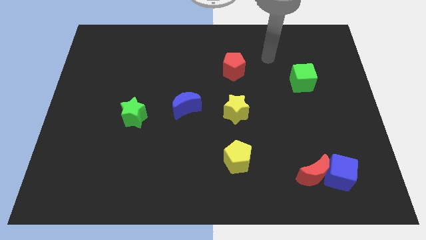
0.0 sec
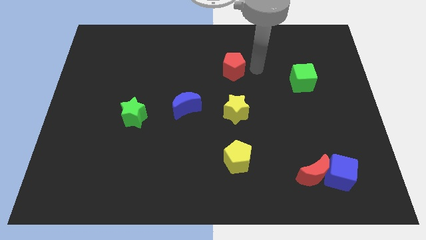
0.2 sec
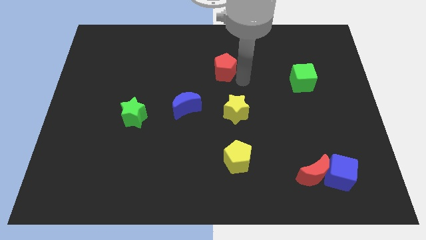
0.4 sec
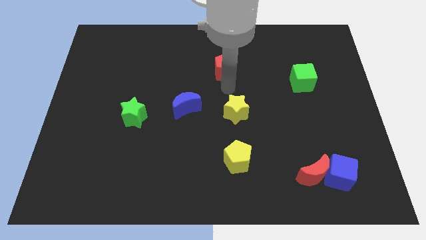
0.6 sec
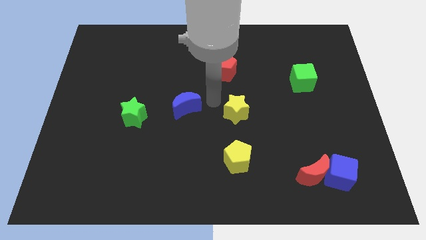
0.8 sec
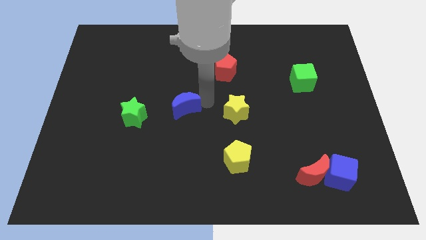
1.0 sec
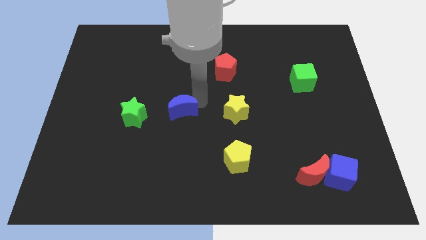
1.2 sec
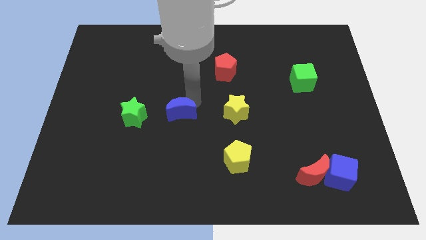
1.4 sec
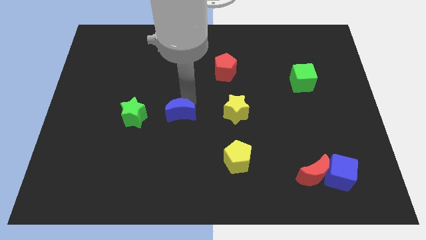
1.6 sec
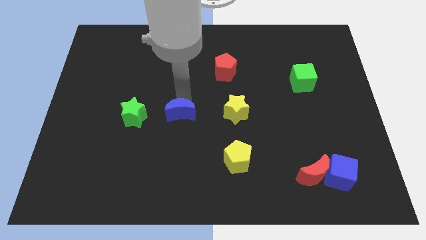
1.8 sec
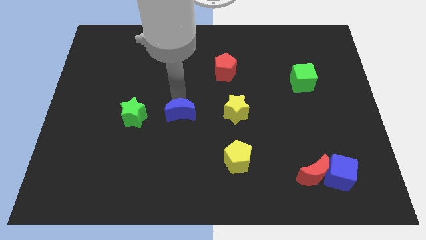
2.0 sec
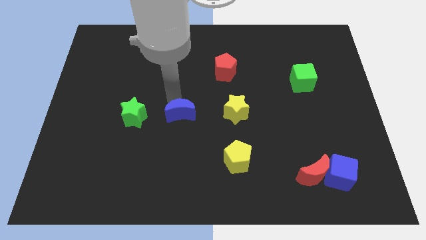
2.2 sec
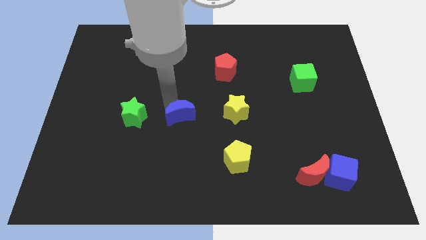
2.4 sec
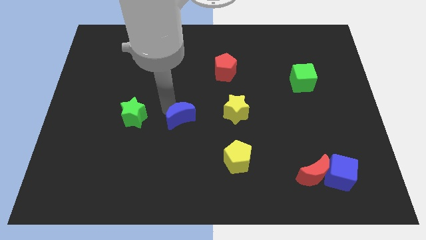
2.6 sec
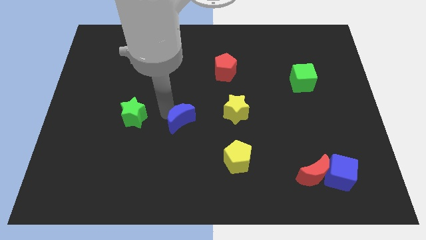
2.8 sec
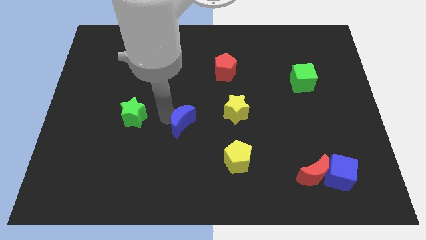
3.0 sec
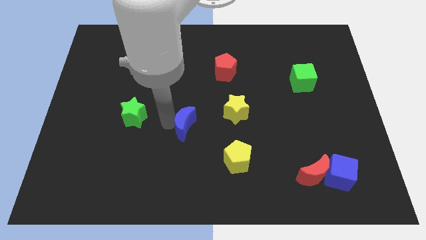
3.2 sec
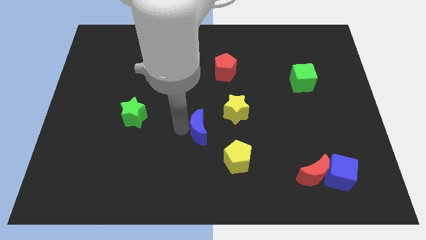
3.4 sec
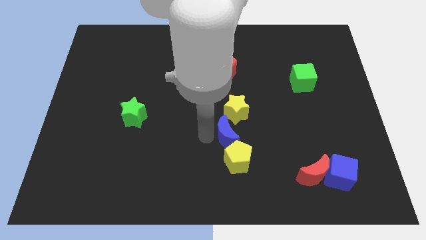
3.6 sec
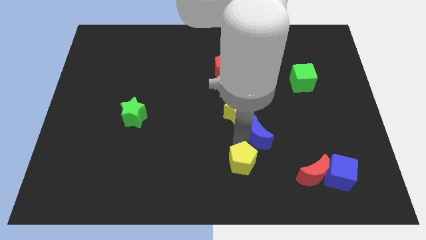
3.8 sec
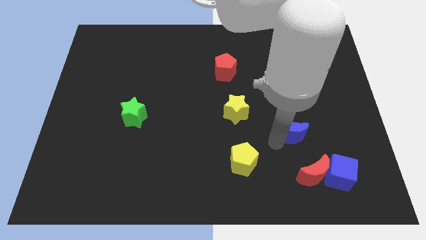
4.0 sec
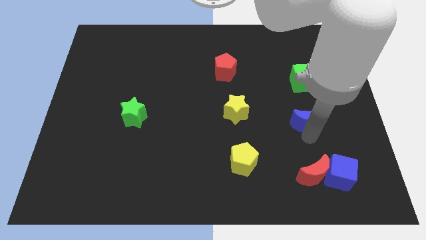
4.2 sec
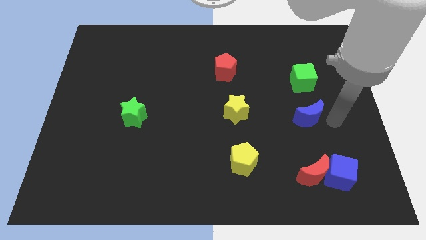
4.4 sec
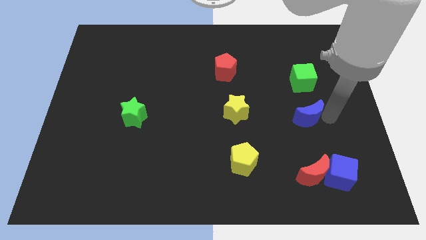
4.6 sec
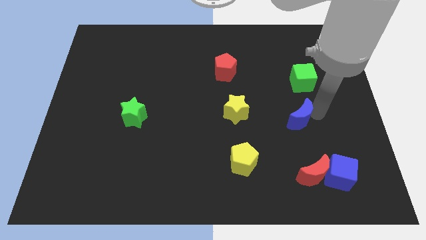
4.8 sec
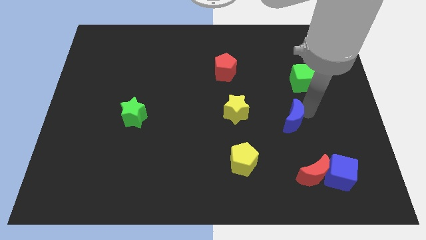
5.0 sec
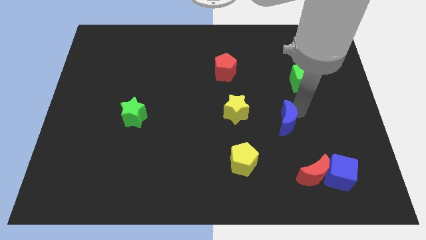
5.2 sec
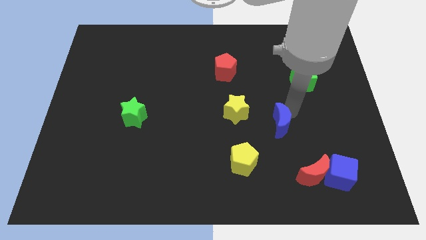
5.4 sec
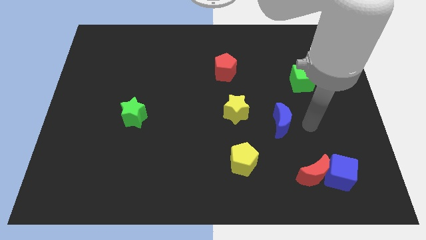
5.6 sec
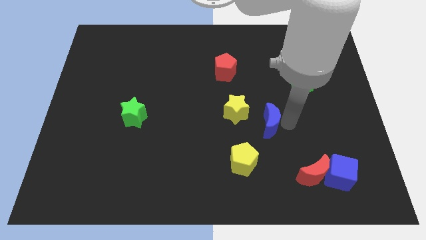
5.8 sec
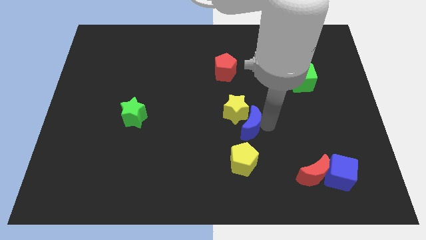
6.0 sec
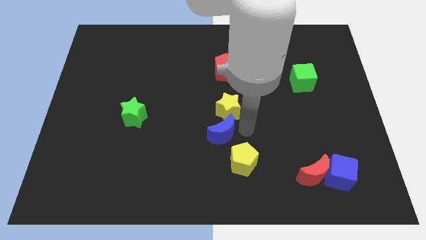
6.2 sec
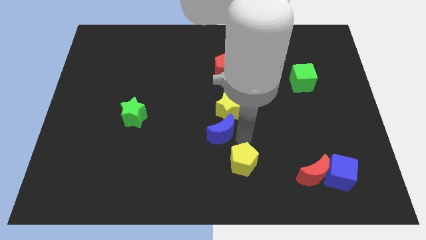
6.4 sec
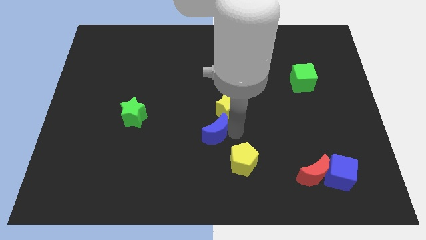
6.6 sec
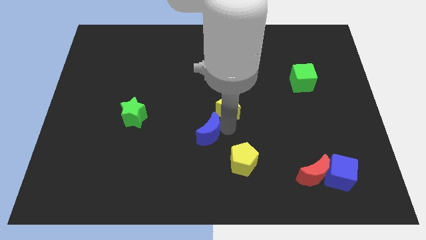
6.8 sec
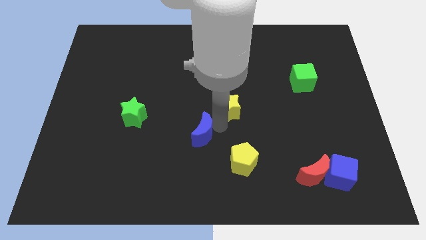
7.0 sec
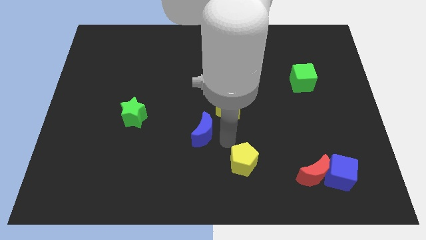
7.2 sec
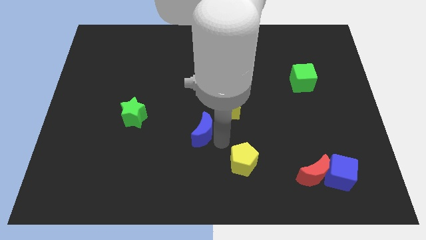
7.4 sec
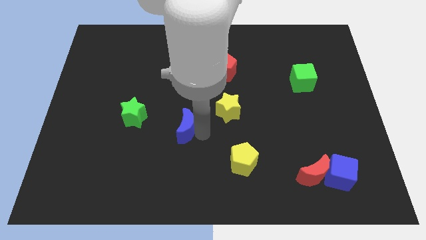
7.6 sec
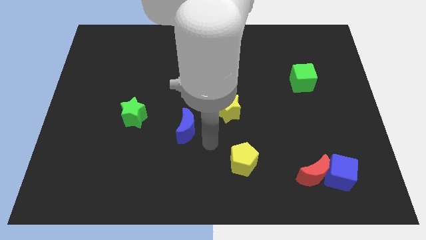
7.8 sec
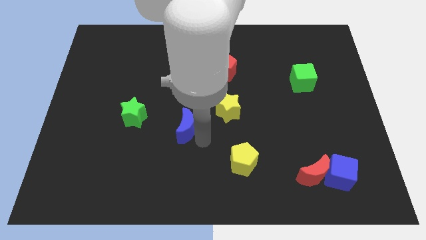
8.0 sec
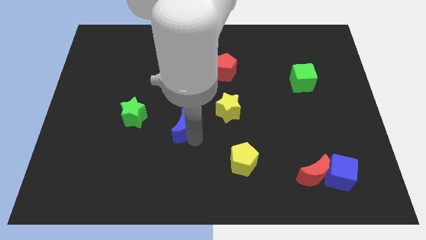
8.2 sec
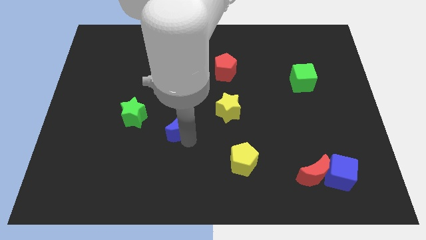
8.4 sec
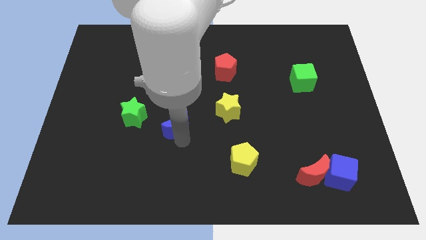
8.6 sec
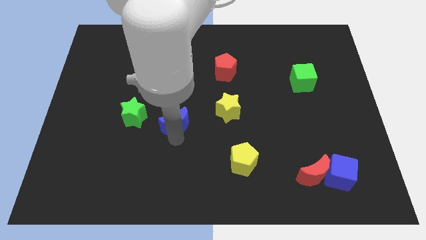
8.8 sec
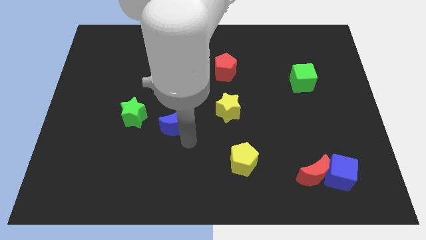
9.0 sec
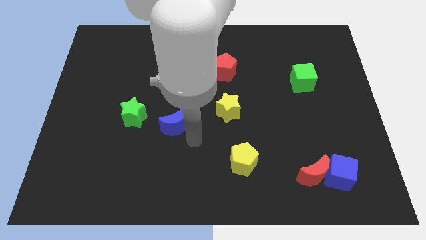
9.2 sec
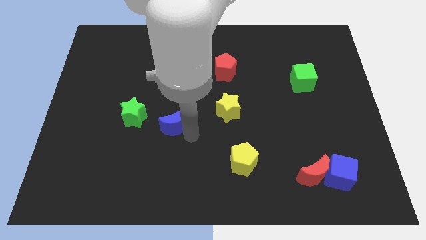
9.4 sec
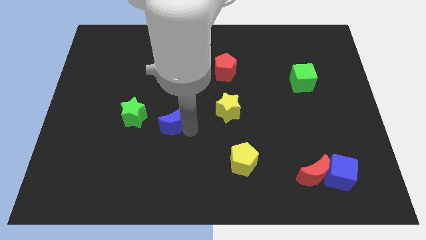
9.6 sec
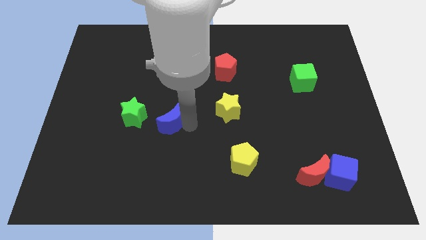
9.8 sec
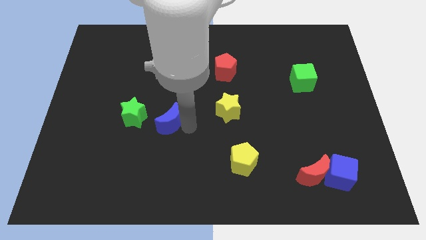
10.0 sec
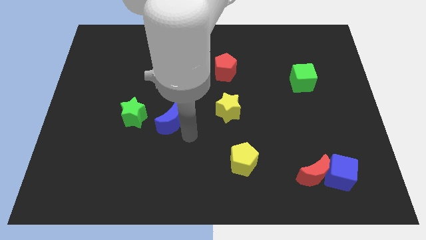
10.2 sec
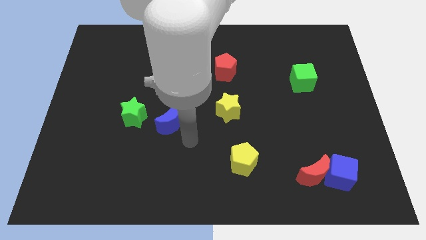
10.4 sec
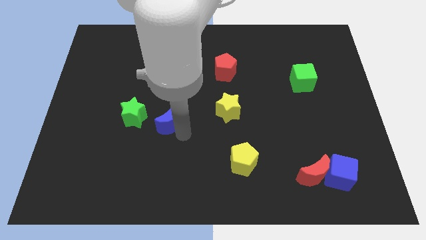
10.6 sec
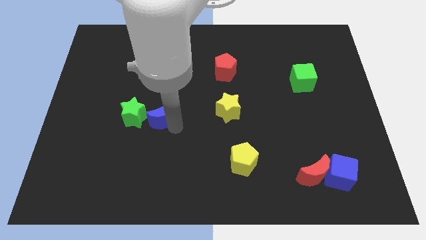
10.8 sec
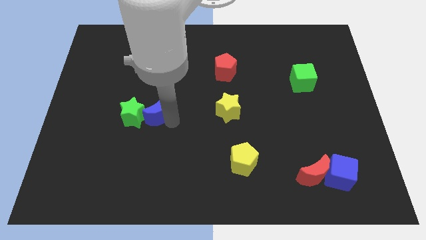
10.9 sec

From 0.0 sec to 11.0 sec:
slide the blue moon to the green star

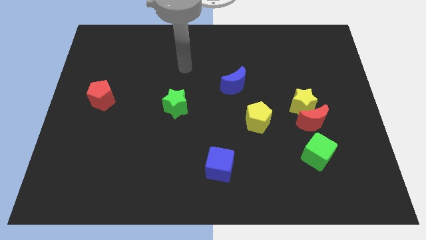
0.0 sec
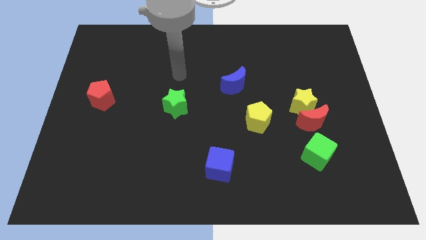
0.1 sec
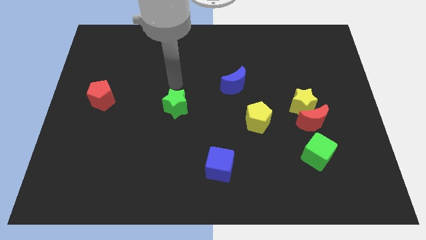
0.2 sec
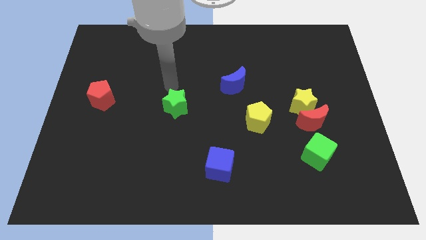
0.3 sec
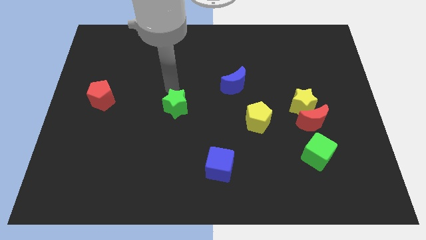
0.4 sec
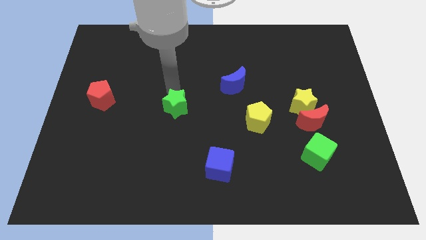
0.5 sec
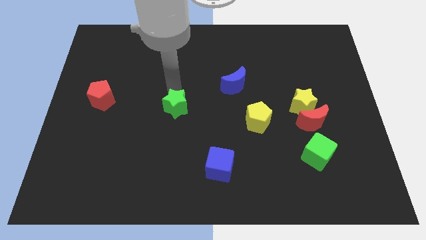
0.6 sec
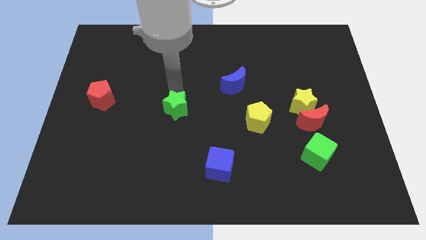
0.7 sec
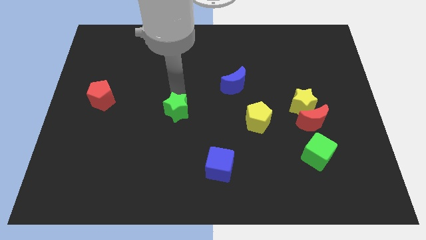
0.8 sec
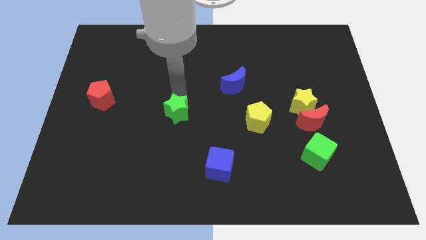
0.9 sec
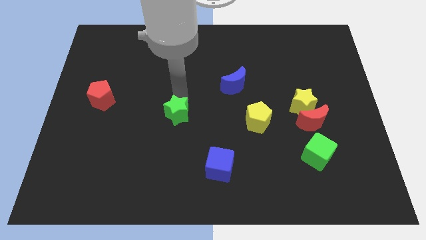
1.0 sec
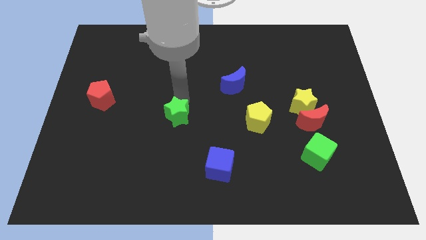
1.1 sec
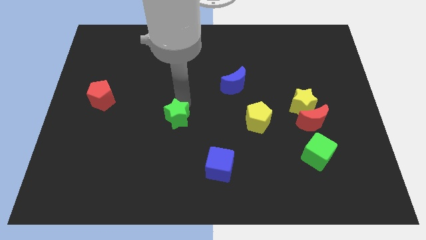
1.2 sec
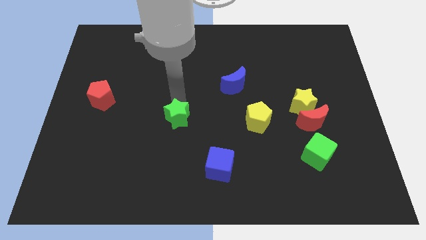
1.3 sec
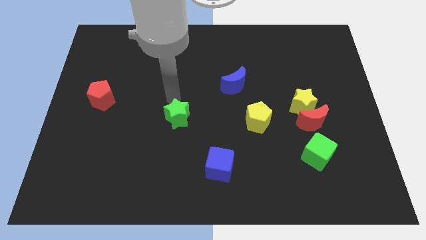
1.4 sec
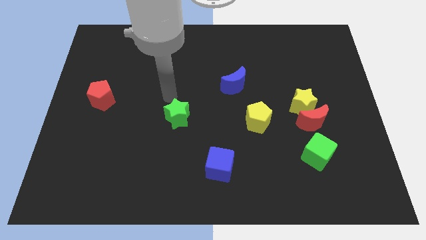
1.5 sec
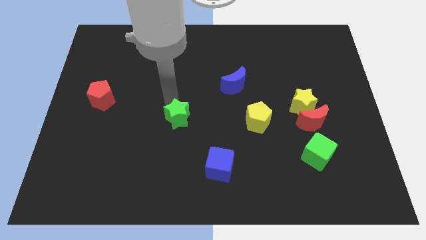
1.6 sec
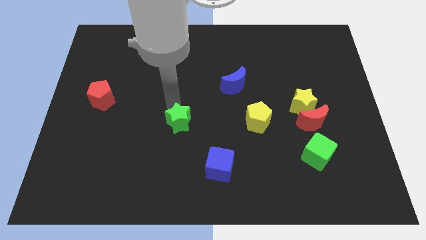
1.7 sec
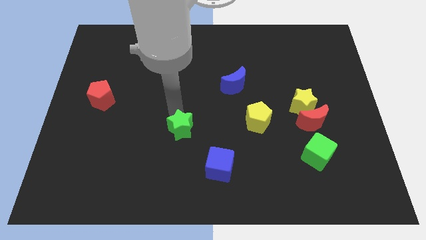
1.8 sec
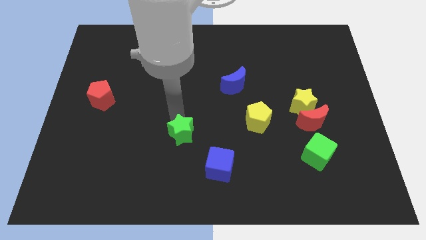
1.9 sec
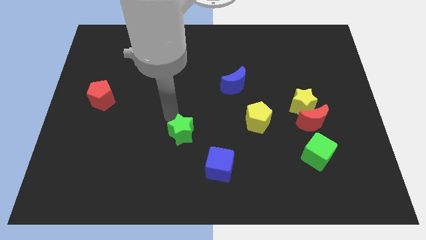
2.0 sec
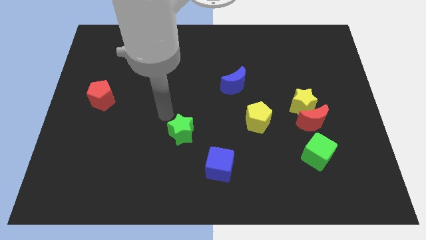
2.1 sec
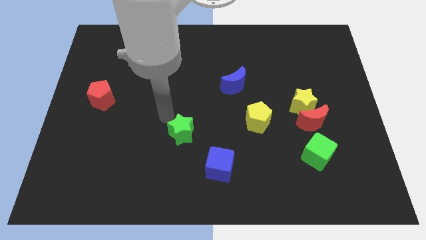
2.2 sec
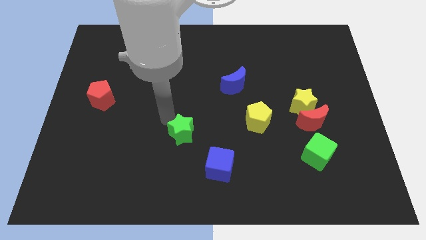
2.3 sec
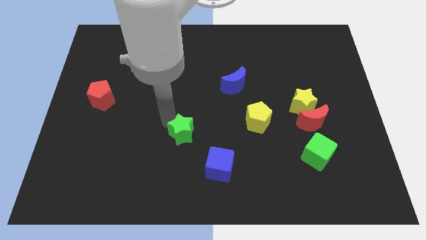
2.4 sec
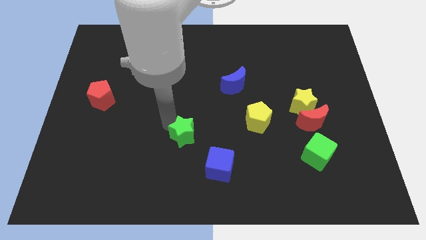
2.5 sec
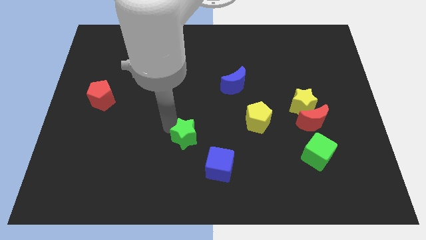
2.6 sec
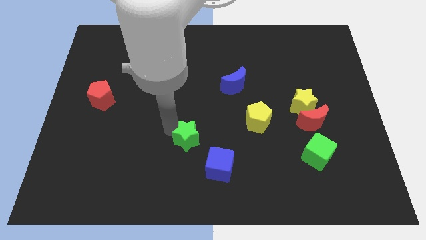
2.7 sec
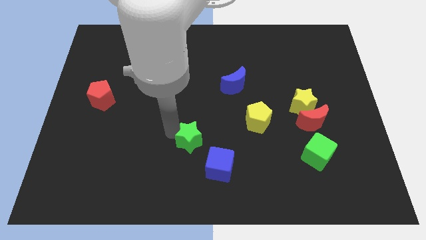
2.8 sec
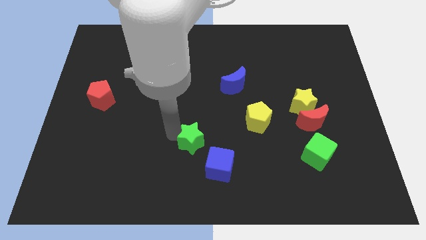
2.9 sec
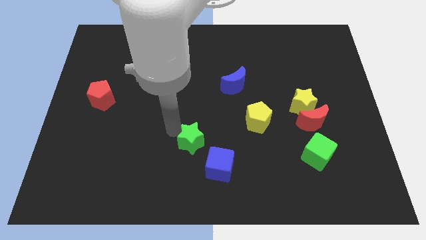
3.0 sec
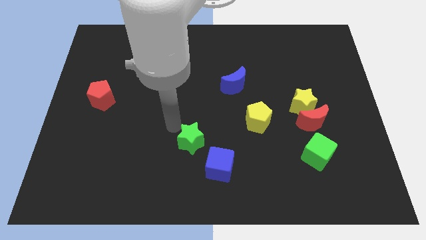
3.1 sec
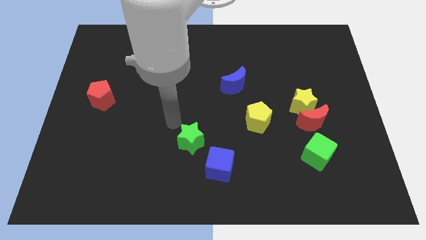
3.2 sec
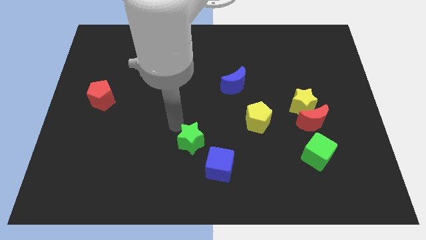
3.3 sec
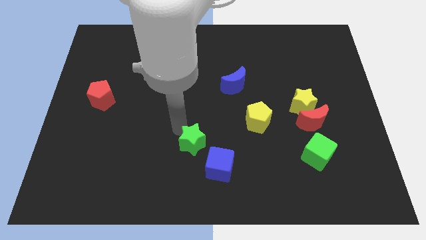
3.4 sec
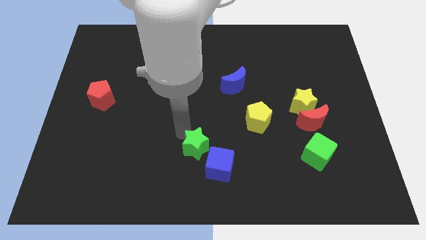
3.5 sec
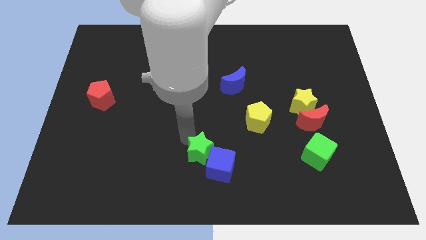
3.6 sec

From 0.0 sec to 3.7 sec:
put the green star close to the blue cube
